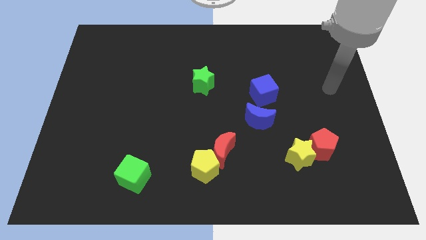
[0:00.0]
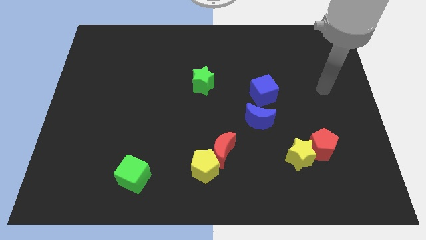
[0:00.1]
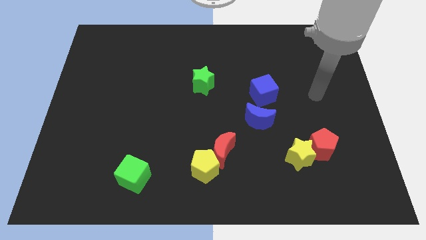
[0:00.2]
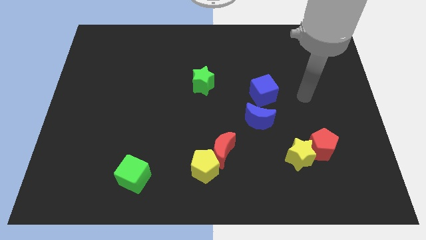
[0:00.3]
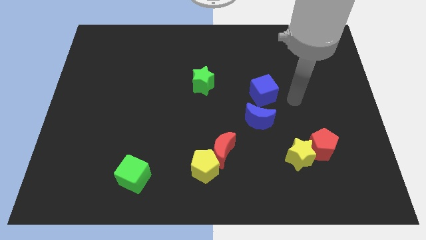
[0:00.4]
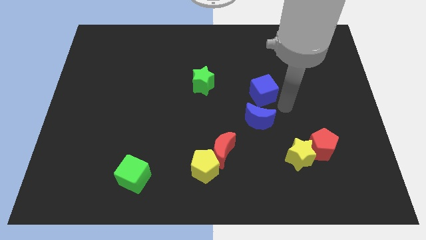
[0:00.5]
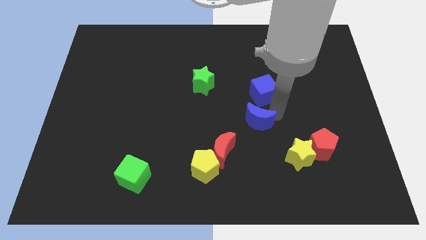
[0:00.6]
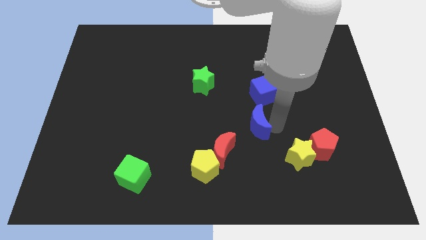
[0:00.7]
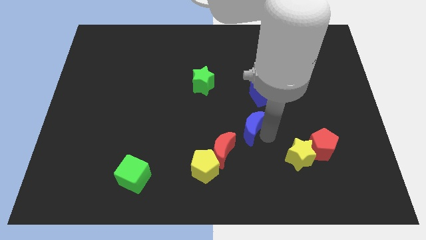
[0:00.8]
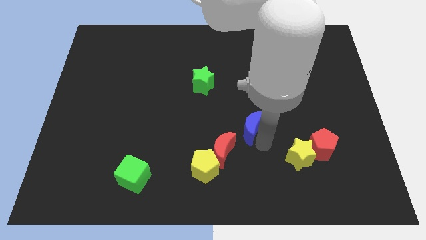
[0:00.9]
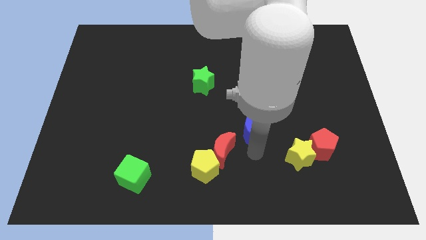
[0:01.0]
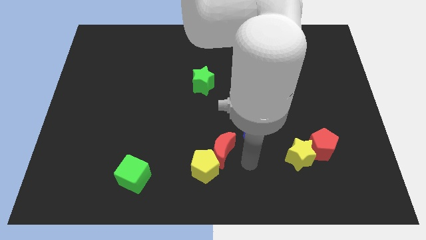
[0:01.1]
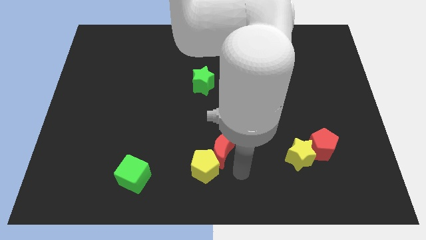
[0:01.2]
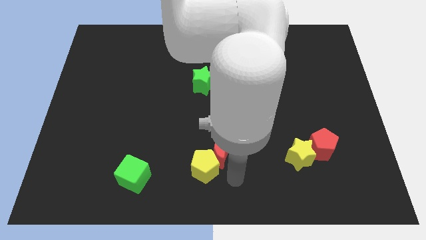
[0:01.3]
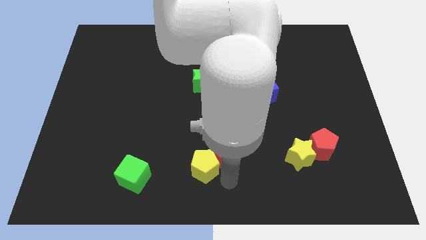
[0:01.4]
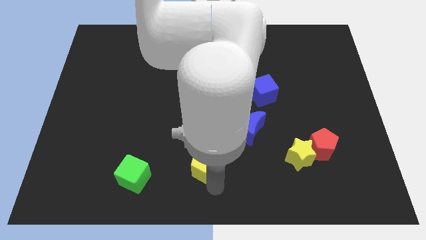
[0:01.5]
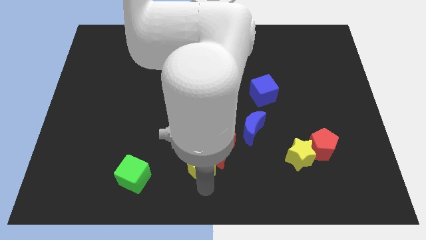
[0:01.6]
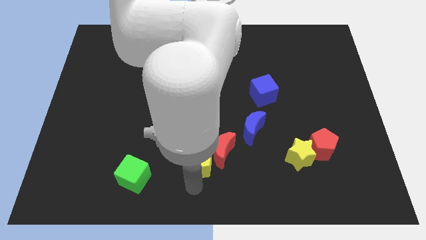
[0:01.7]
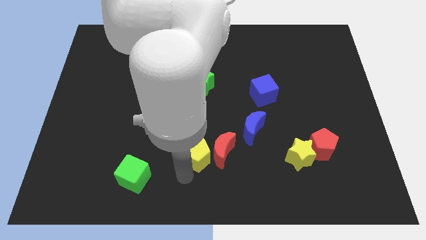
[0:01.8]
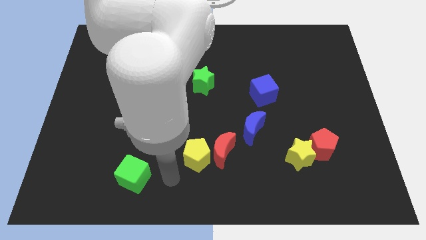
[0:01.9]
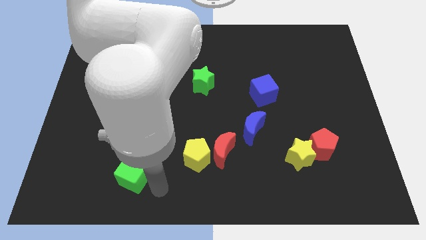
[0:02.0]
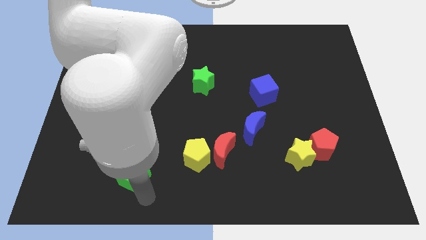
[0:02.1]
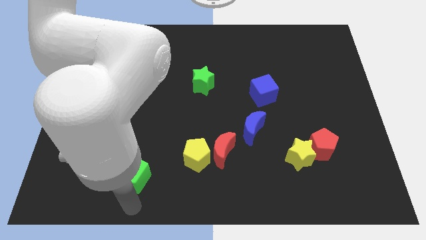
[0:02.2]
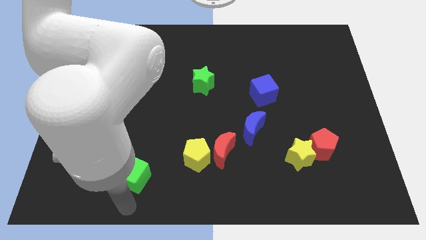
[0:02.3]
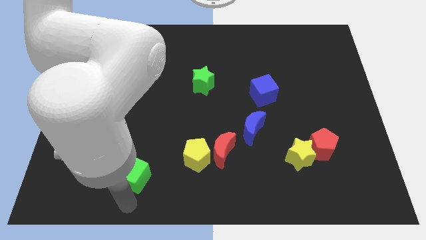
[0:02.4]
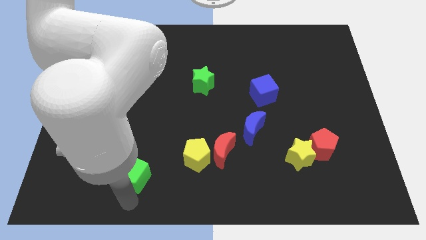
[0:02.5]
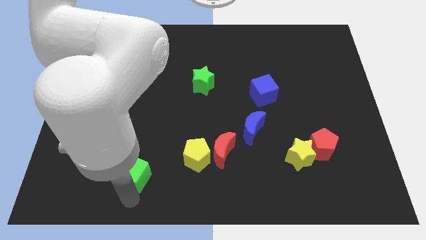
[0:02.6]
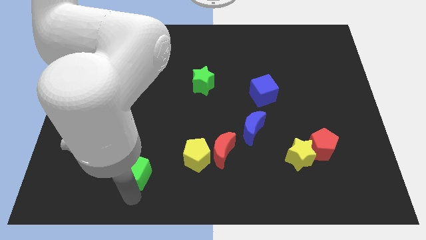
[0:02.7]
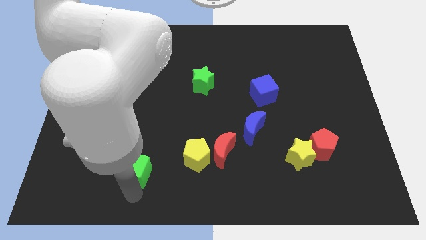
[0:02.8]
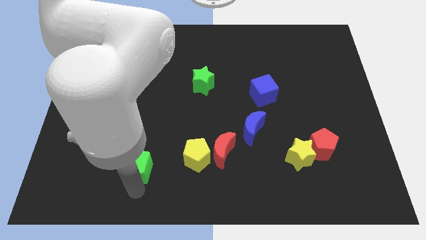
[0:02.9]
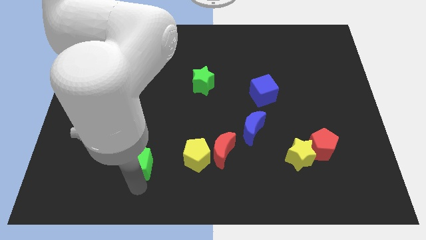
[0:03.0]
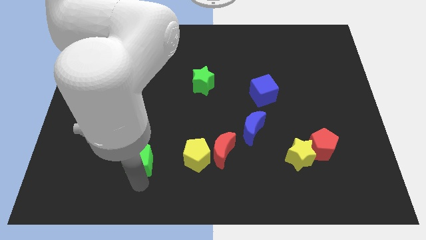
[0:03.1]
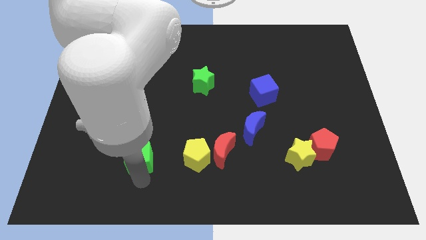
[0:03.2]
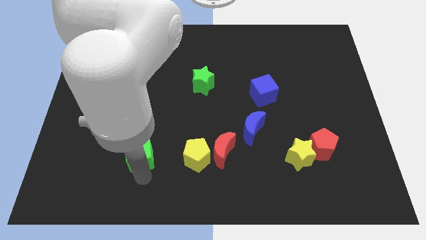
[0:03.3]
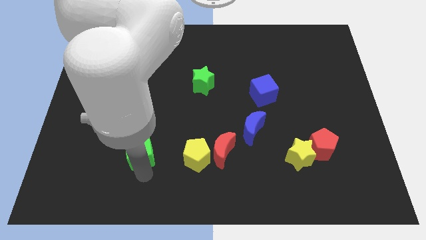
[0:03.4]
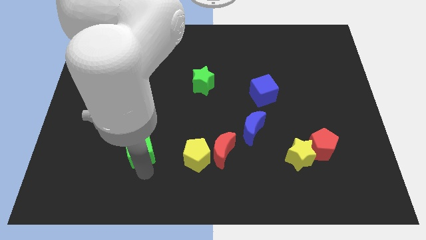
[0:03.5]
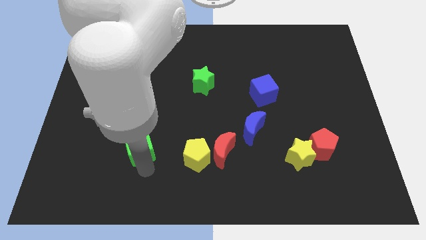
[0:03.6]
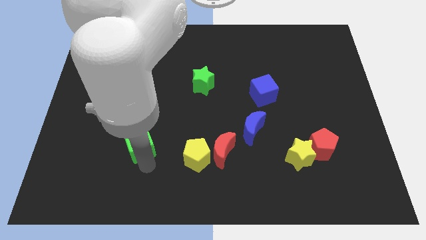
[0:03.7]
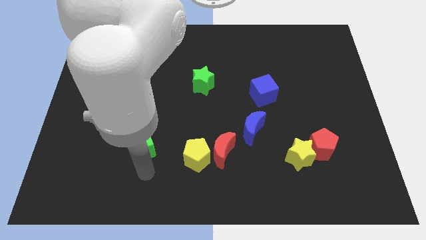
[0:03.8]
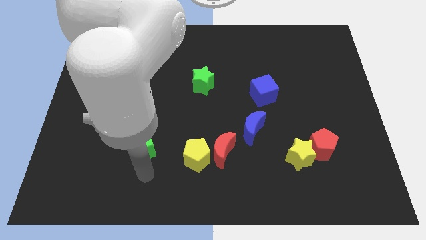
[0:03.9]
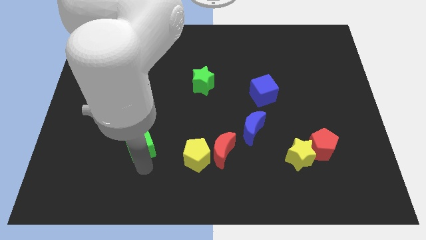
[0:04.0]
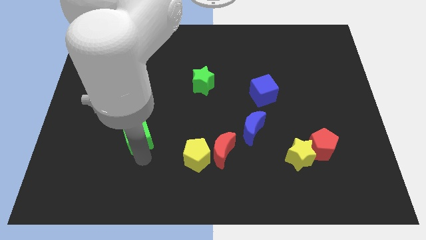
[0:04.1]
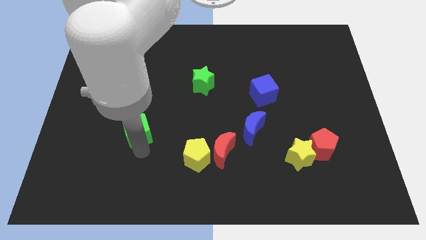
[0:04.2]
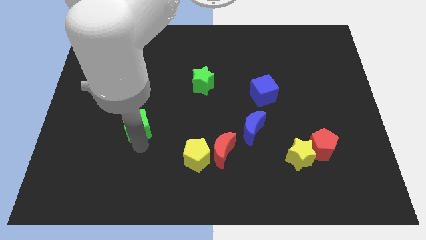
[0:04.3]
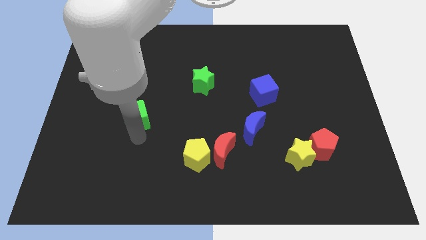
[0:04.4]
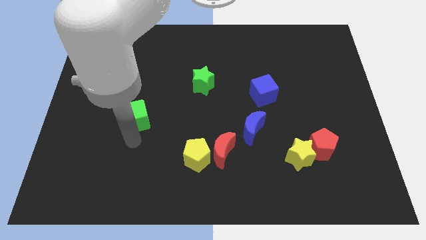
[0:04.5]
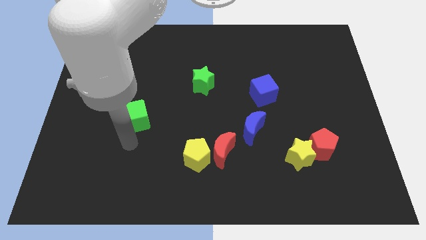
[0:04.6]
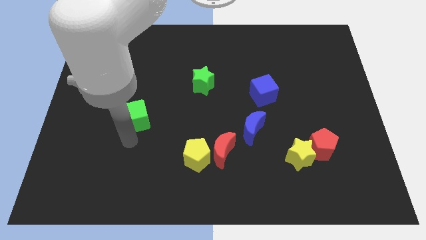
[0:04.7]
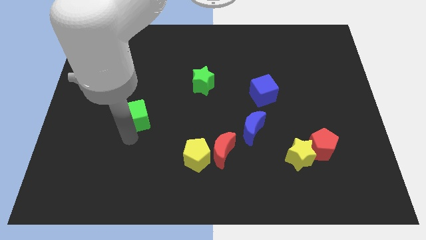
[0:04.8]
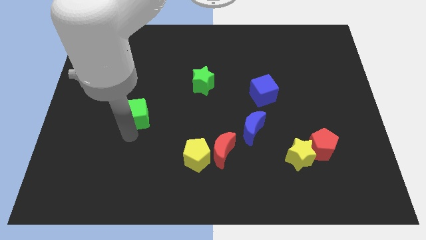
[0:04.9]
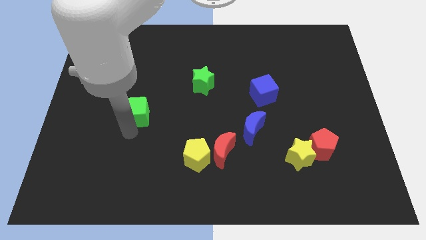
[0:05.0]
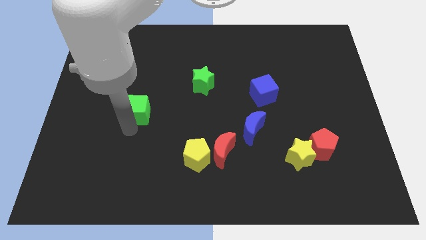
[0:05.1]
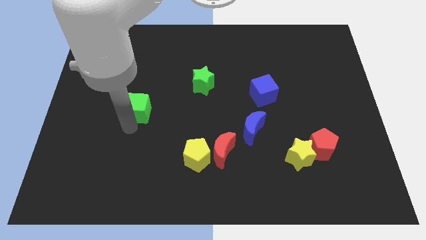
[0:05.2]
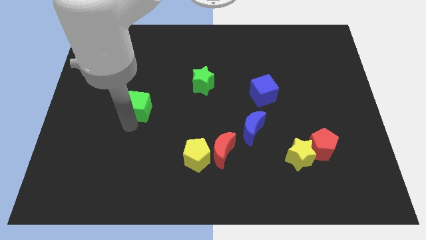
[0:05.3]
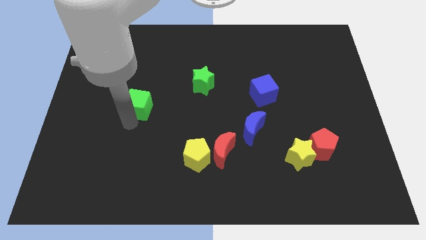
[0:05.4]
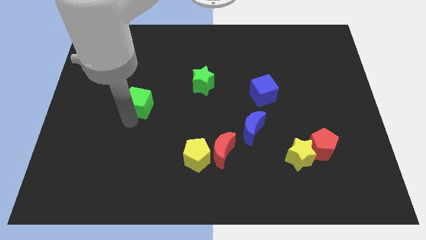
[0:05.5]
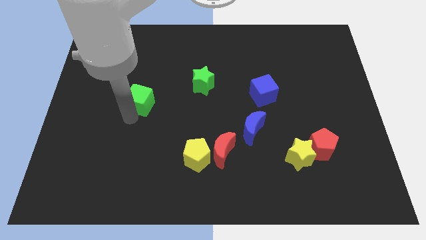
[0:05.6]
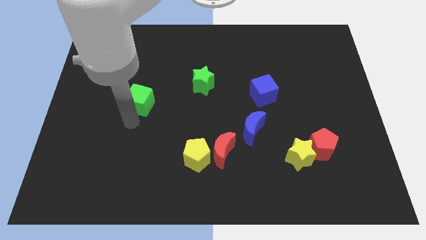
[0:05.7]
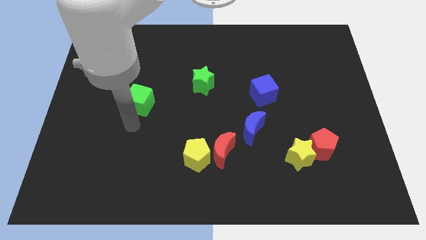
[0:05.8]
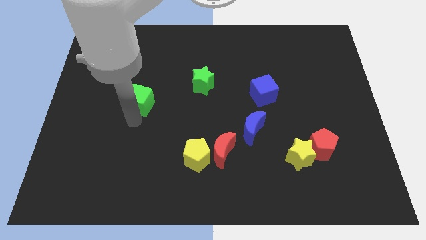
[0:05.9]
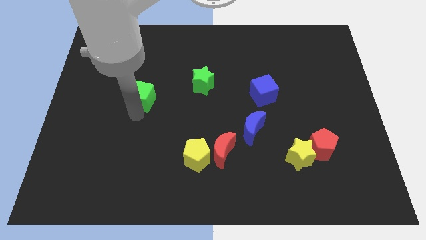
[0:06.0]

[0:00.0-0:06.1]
move the green cube up

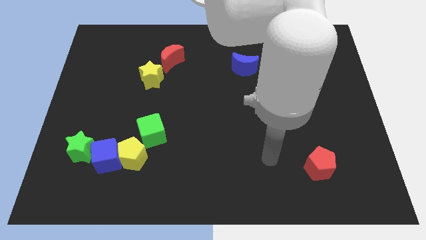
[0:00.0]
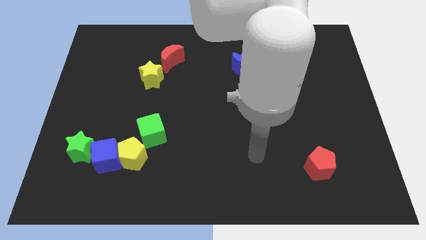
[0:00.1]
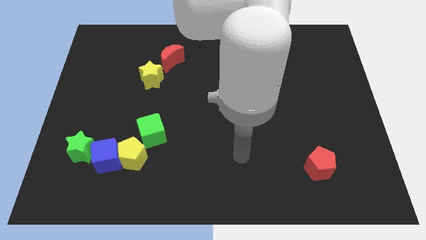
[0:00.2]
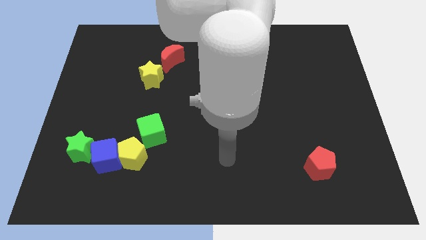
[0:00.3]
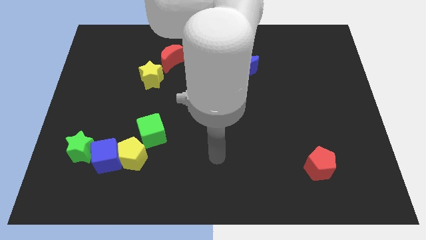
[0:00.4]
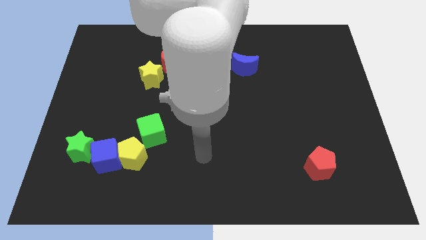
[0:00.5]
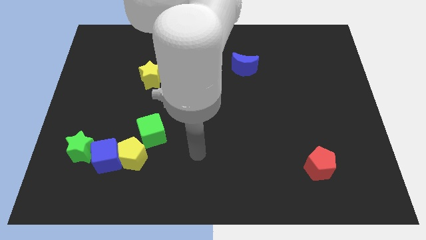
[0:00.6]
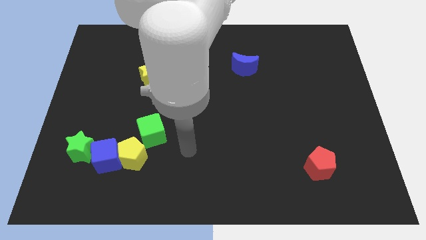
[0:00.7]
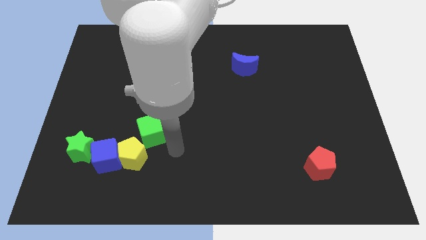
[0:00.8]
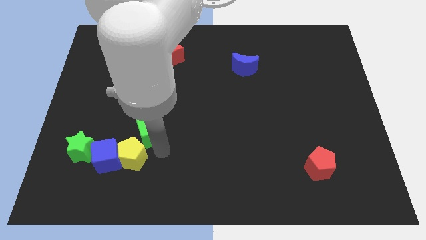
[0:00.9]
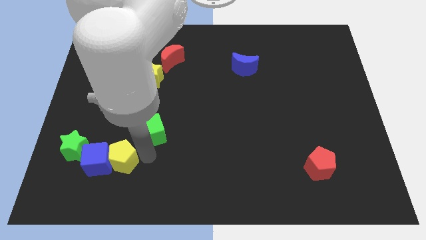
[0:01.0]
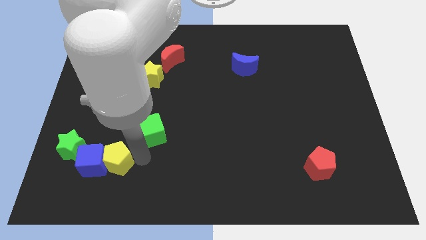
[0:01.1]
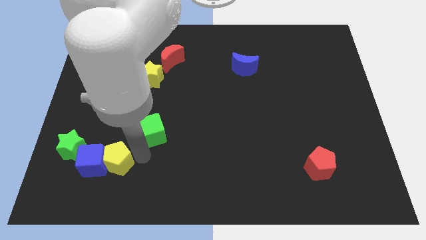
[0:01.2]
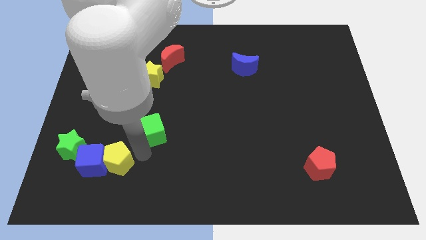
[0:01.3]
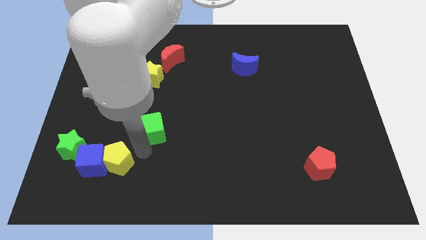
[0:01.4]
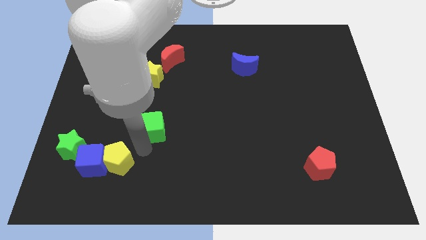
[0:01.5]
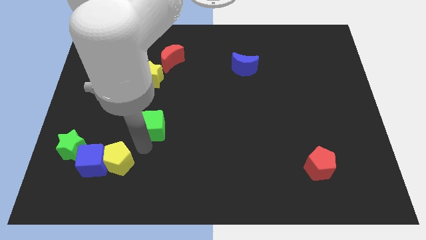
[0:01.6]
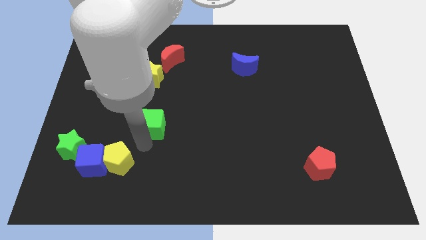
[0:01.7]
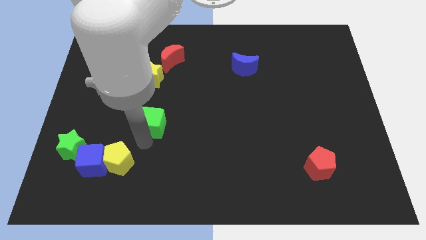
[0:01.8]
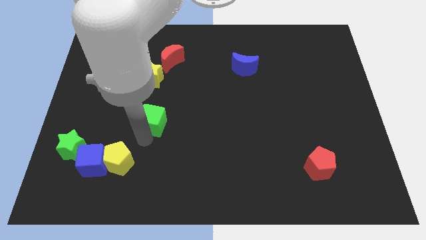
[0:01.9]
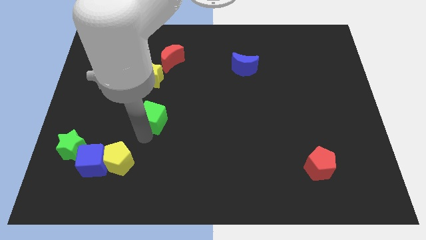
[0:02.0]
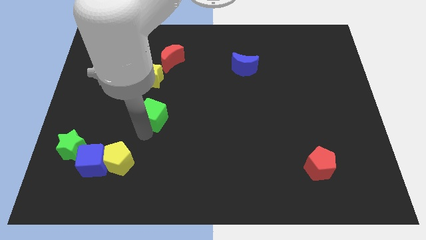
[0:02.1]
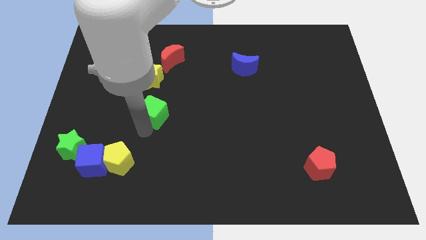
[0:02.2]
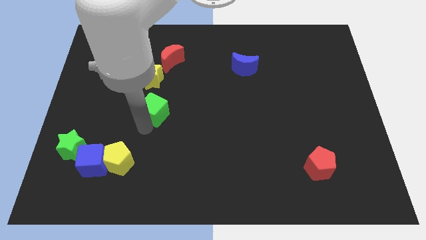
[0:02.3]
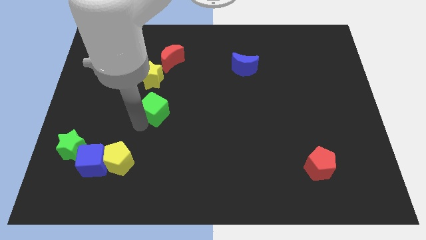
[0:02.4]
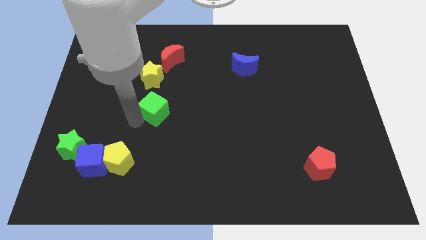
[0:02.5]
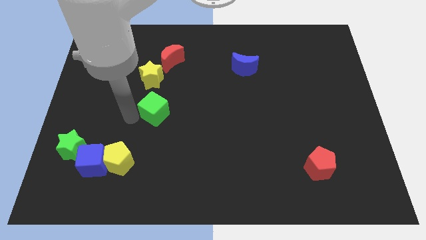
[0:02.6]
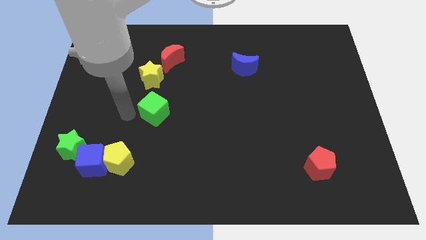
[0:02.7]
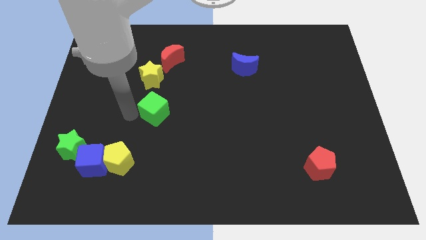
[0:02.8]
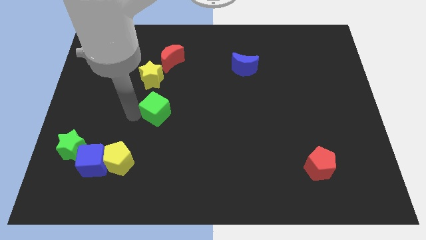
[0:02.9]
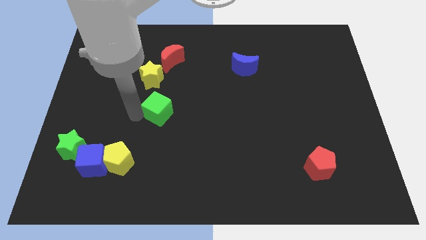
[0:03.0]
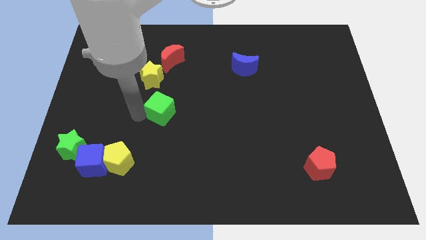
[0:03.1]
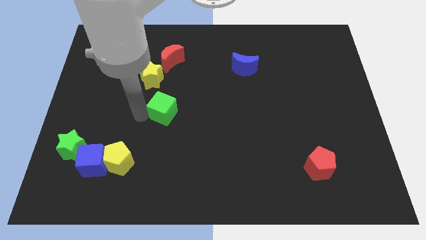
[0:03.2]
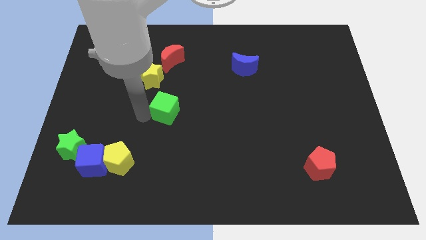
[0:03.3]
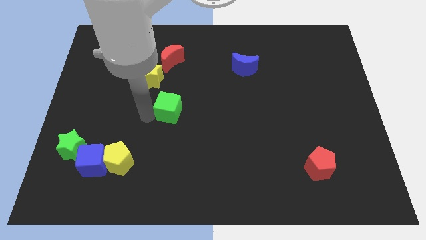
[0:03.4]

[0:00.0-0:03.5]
push the green cube somewhat up and right diagonally
